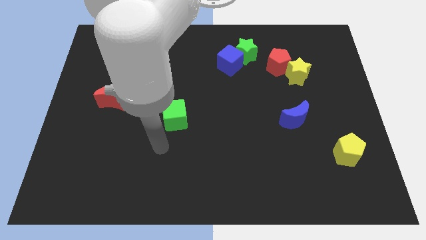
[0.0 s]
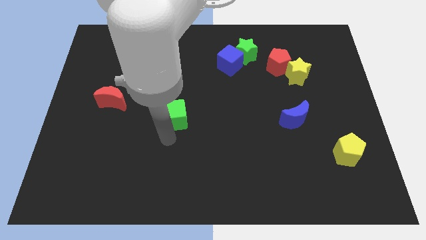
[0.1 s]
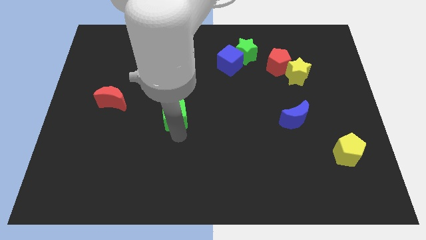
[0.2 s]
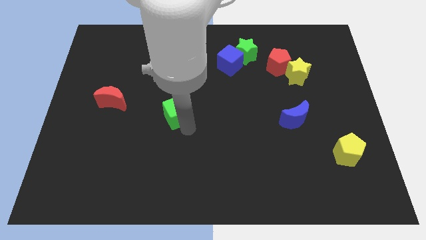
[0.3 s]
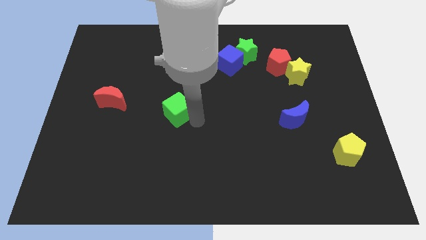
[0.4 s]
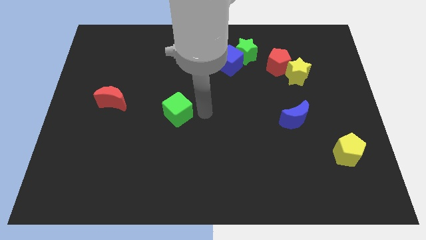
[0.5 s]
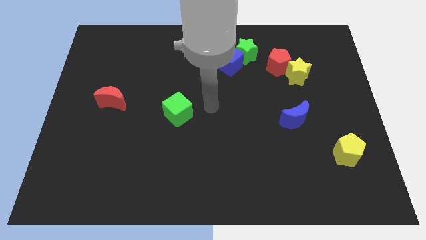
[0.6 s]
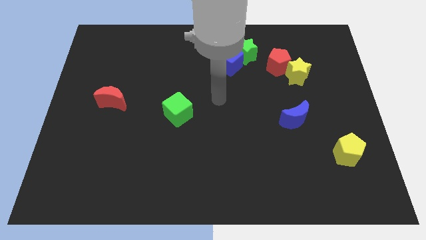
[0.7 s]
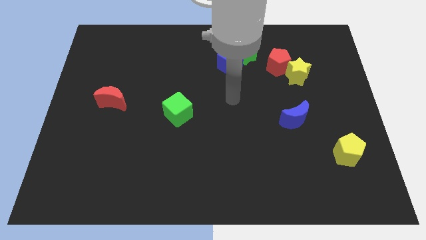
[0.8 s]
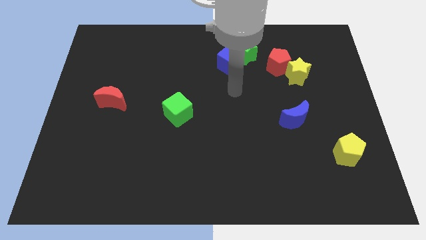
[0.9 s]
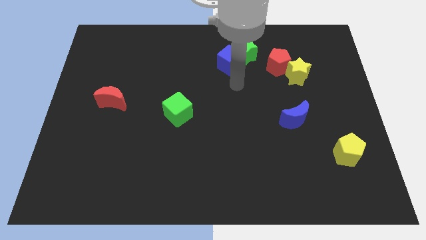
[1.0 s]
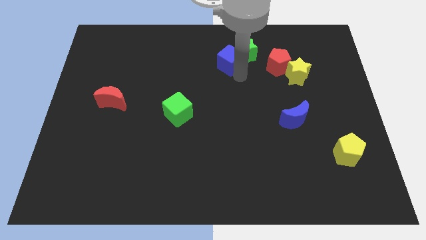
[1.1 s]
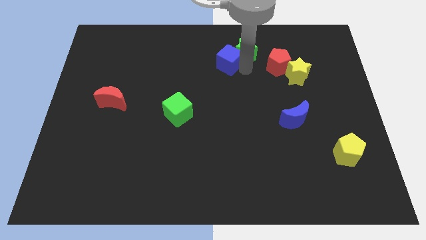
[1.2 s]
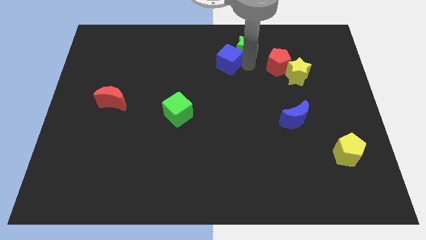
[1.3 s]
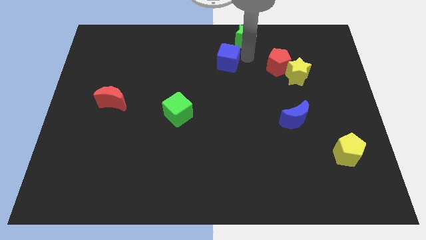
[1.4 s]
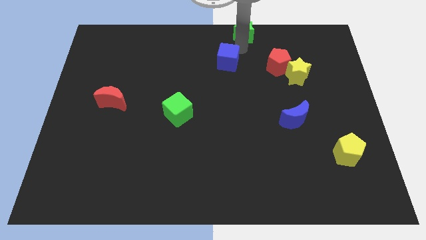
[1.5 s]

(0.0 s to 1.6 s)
pull the blue cube apart from the green star

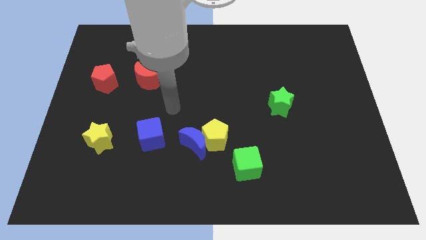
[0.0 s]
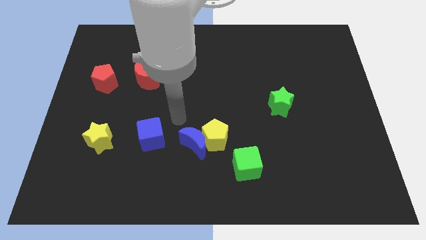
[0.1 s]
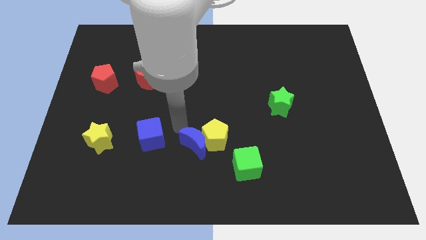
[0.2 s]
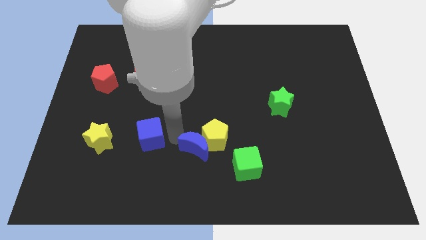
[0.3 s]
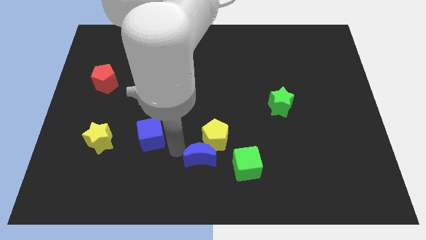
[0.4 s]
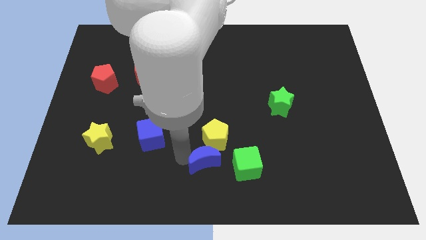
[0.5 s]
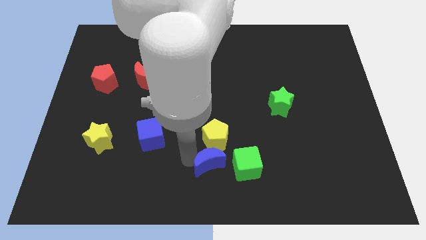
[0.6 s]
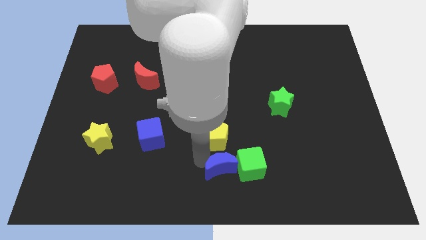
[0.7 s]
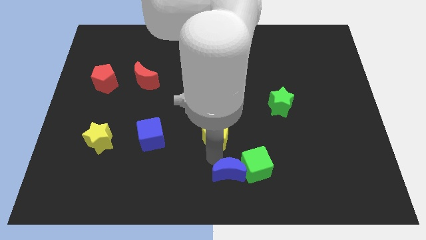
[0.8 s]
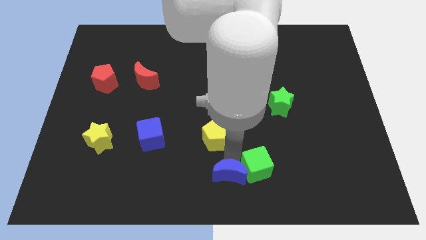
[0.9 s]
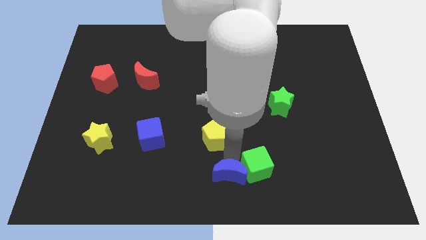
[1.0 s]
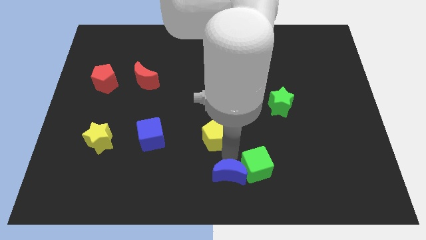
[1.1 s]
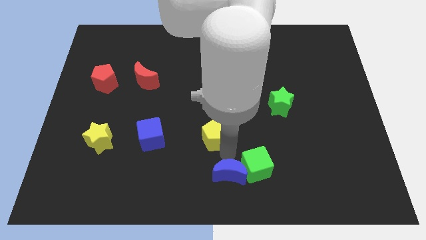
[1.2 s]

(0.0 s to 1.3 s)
move the yellow pentagon away from the blue moon and green cube

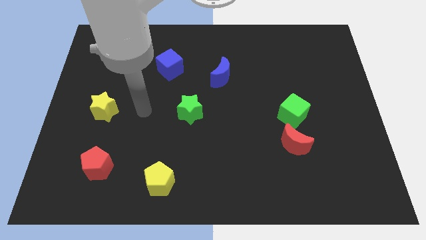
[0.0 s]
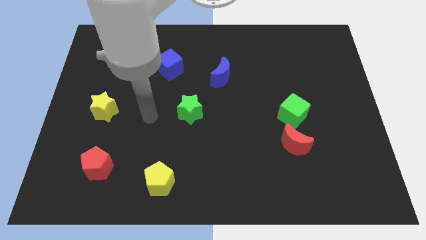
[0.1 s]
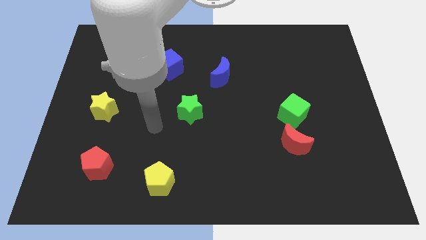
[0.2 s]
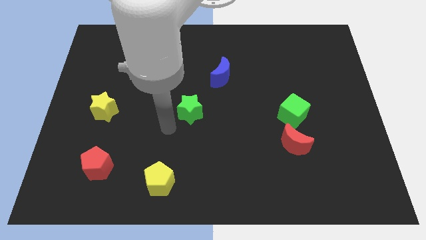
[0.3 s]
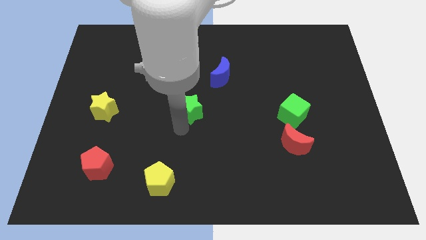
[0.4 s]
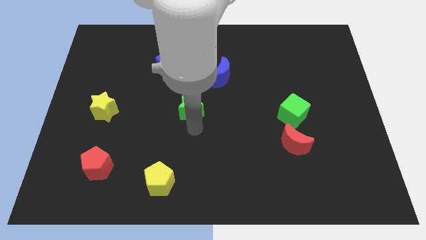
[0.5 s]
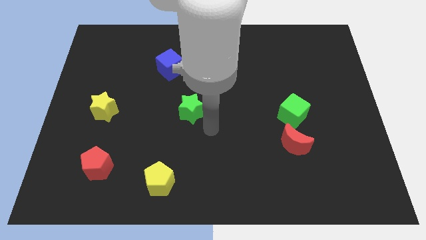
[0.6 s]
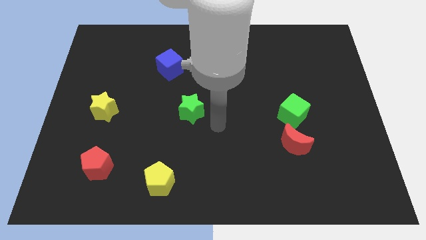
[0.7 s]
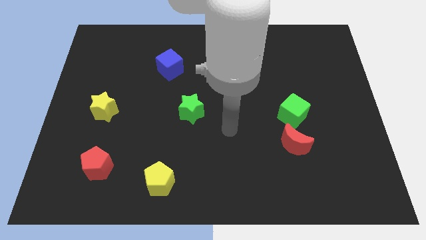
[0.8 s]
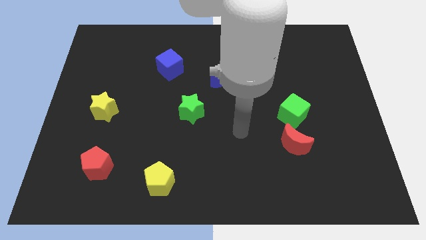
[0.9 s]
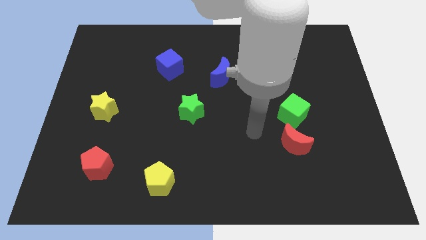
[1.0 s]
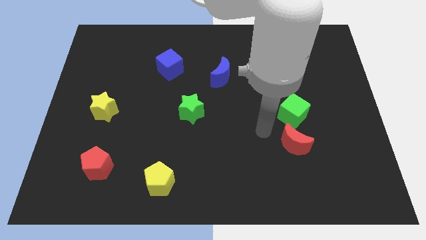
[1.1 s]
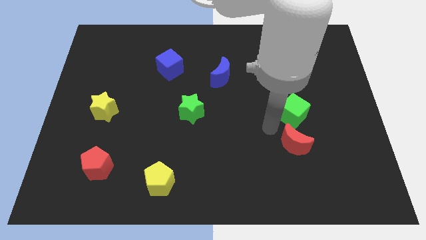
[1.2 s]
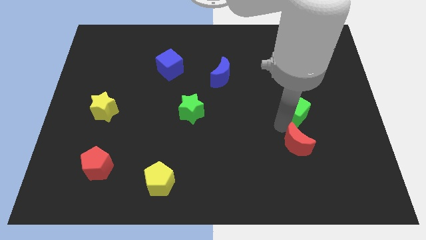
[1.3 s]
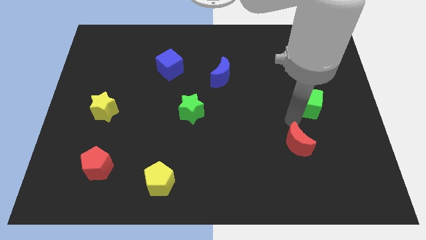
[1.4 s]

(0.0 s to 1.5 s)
pull the red moon apart from the green cube

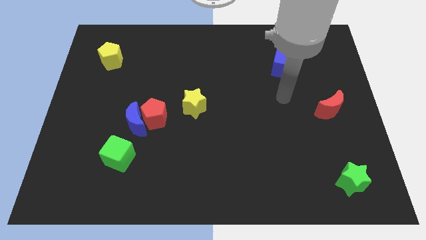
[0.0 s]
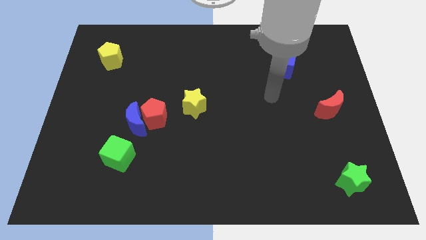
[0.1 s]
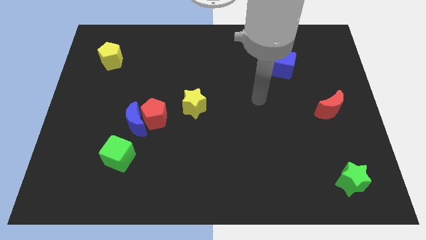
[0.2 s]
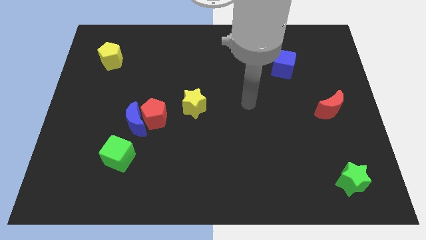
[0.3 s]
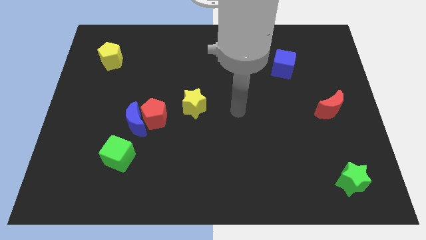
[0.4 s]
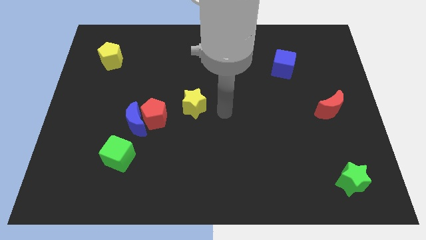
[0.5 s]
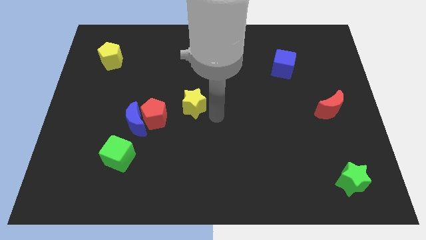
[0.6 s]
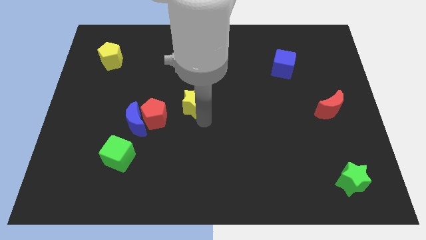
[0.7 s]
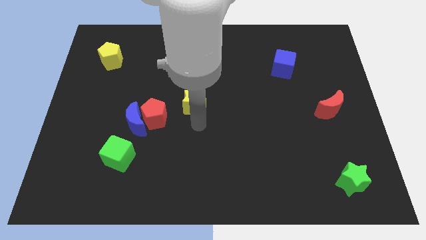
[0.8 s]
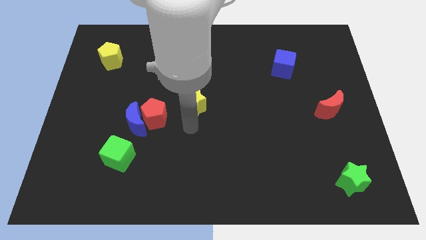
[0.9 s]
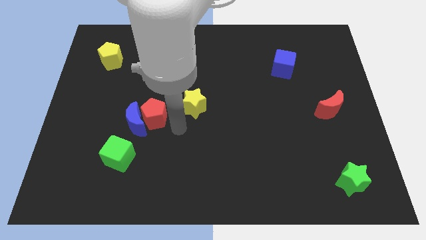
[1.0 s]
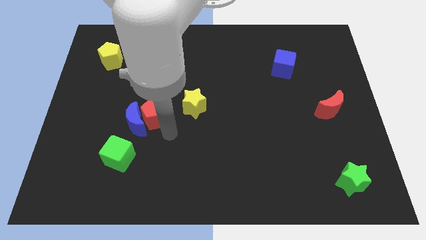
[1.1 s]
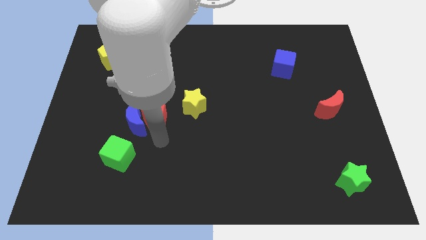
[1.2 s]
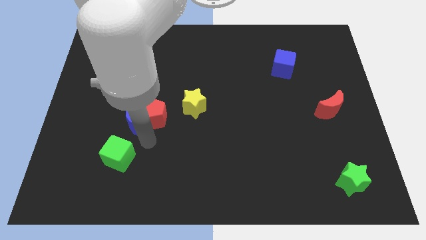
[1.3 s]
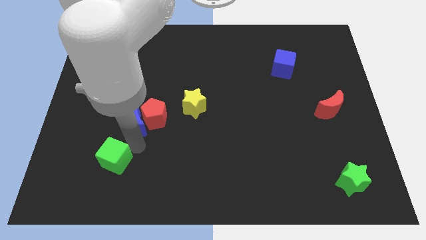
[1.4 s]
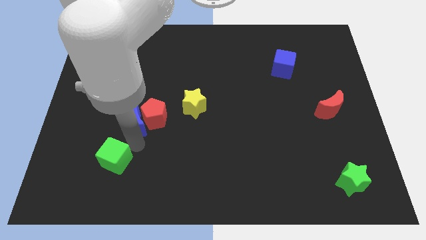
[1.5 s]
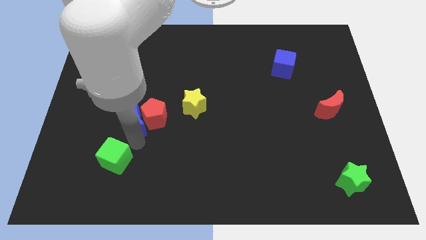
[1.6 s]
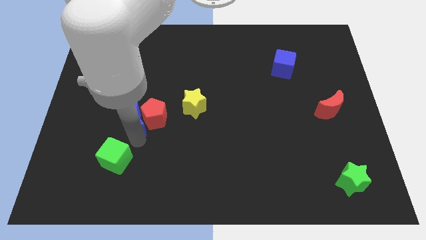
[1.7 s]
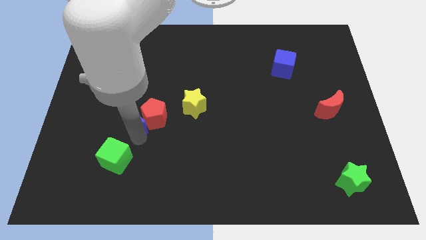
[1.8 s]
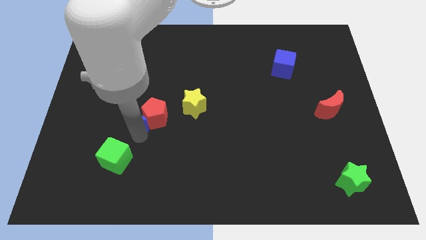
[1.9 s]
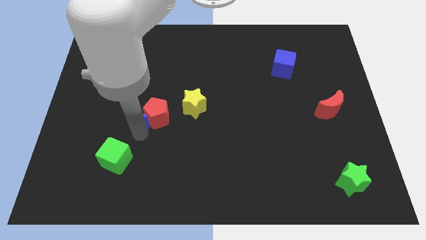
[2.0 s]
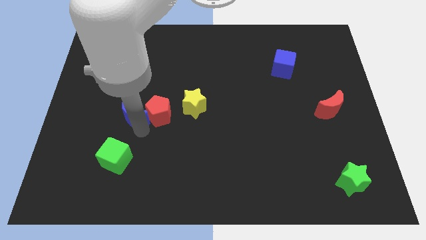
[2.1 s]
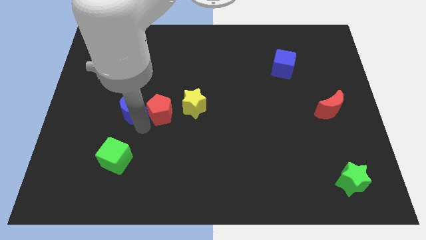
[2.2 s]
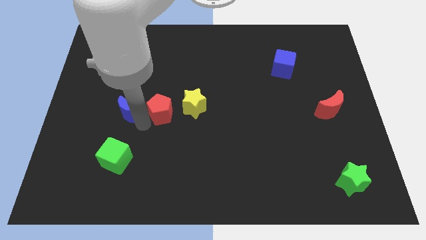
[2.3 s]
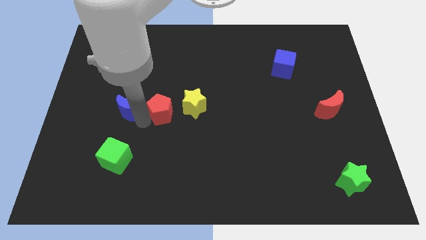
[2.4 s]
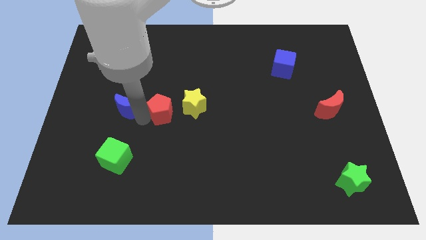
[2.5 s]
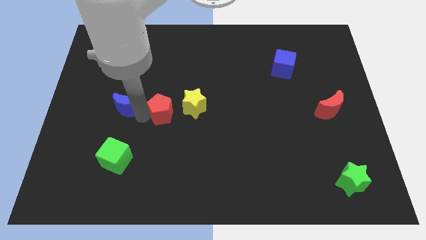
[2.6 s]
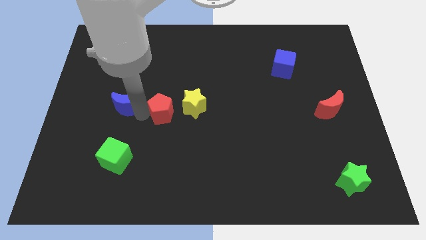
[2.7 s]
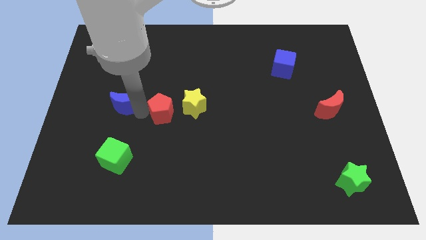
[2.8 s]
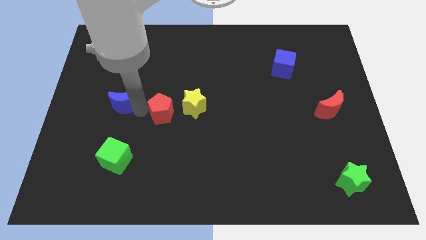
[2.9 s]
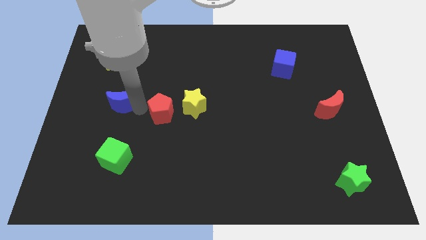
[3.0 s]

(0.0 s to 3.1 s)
move the blue moon away from the red pentagon and green cube

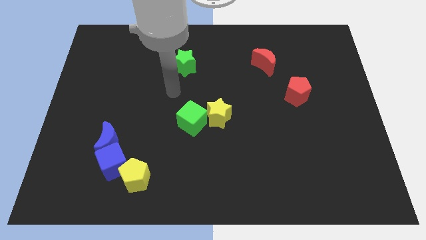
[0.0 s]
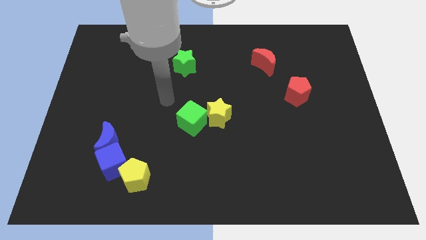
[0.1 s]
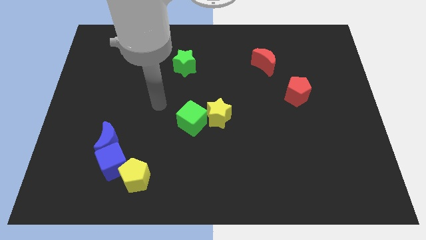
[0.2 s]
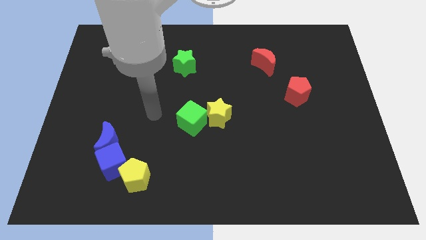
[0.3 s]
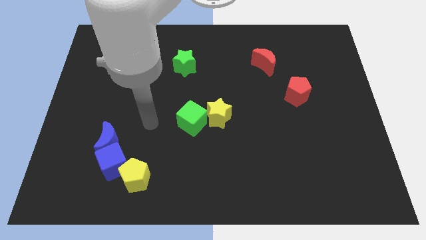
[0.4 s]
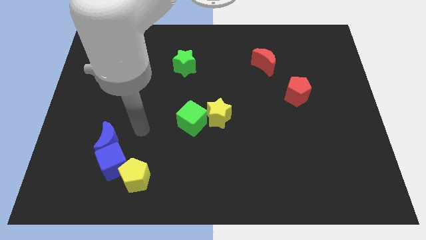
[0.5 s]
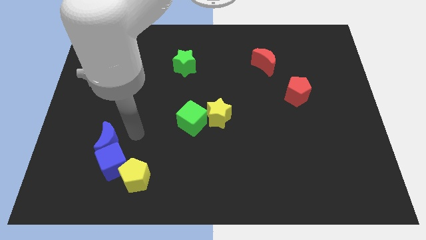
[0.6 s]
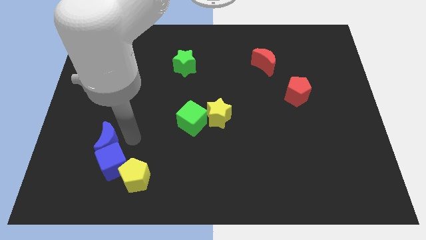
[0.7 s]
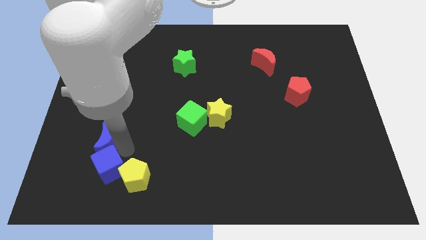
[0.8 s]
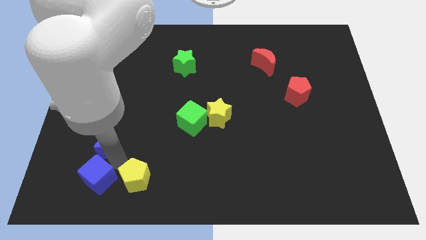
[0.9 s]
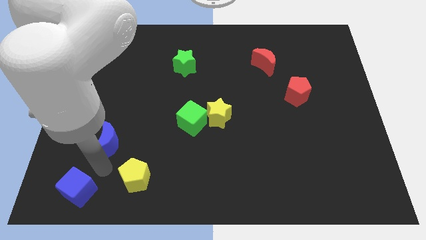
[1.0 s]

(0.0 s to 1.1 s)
pull the blue moon apart from the blue cube

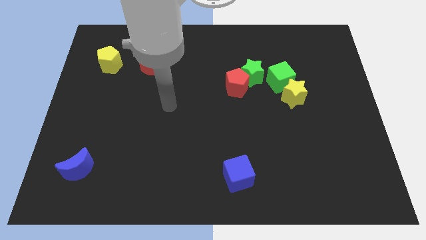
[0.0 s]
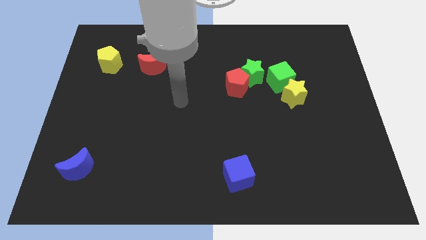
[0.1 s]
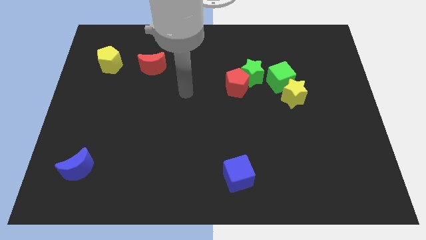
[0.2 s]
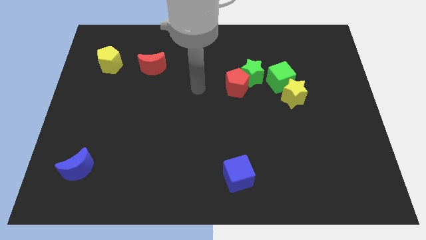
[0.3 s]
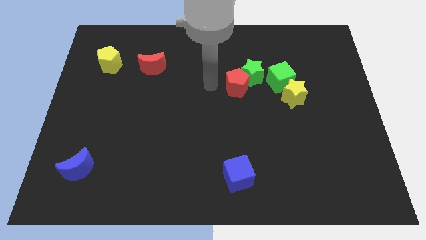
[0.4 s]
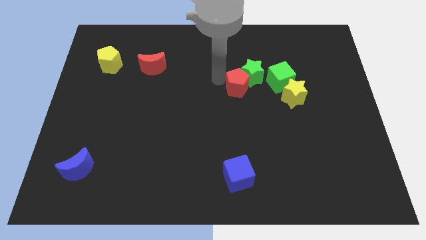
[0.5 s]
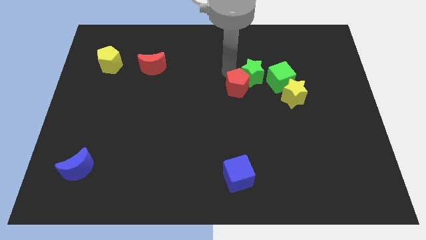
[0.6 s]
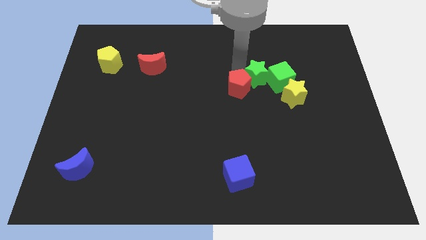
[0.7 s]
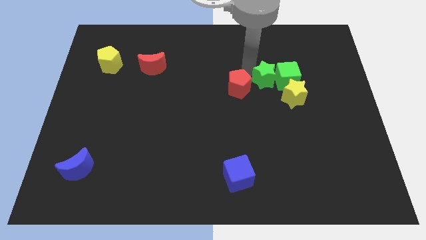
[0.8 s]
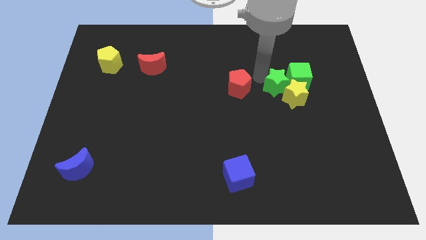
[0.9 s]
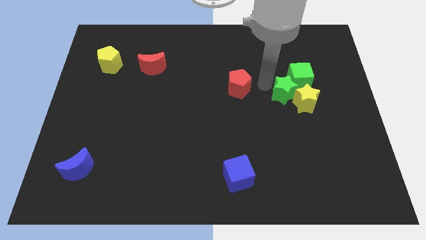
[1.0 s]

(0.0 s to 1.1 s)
pull the red pentagon apart from the green star
